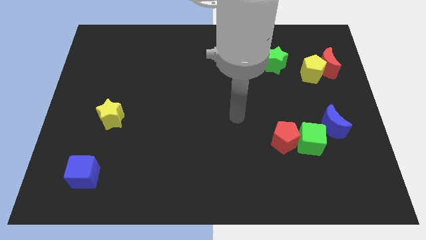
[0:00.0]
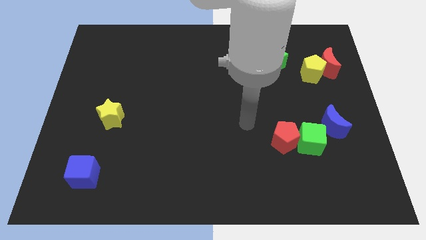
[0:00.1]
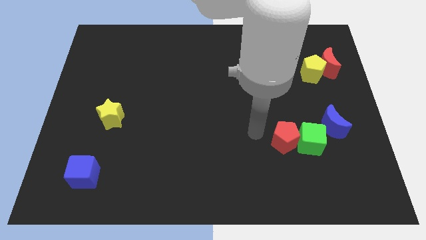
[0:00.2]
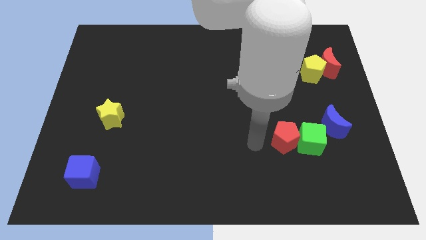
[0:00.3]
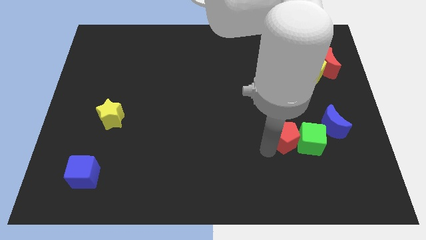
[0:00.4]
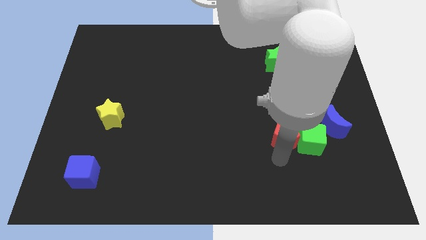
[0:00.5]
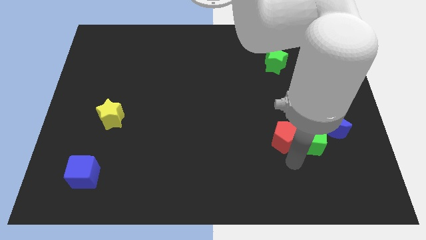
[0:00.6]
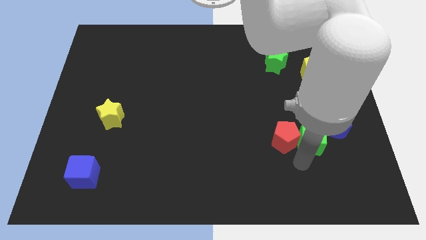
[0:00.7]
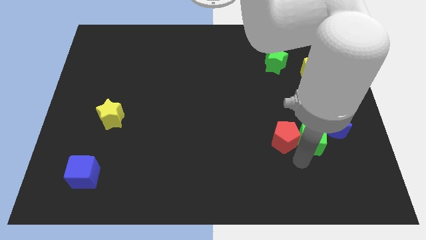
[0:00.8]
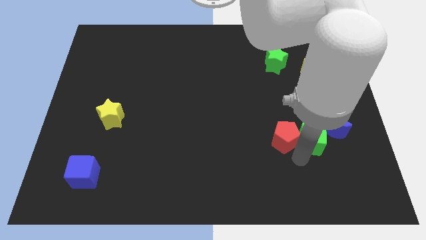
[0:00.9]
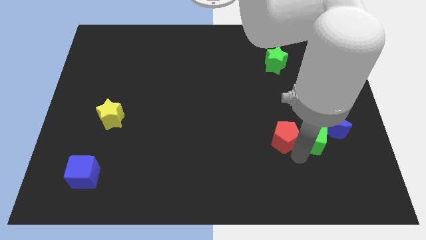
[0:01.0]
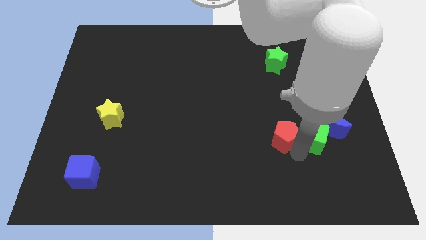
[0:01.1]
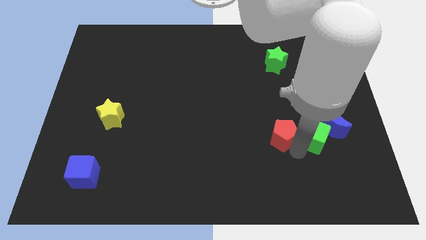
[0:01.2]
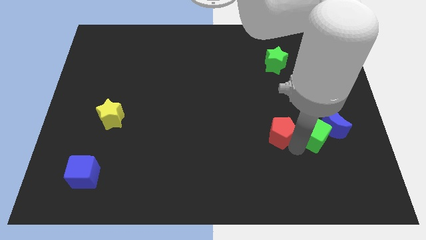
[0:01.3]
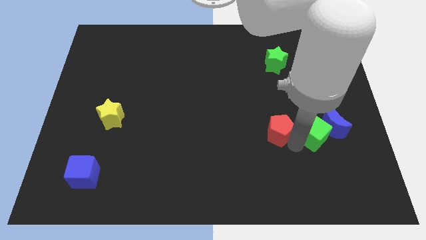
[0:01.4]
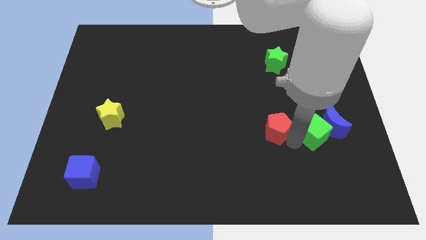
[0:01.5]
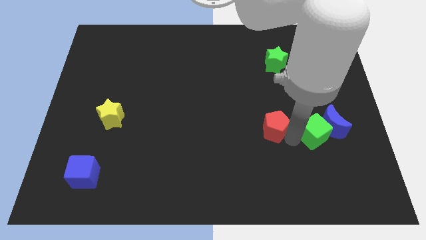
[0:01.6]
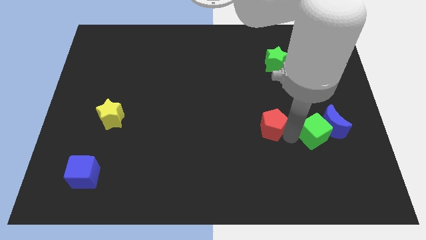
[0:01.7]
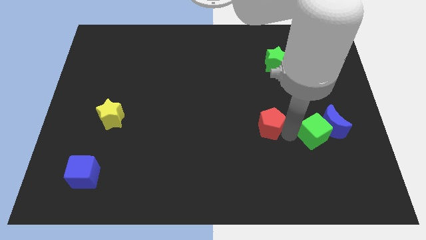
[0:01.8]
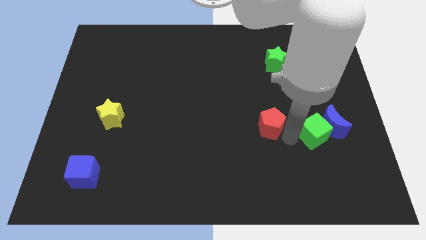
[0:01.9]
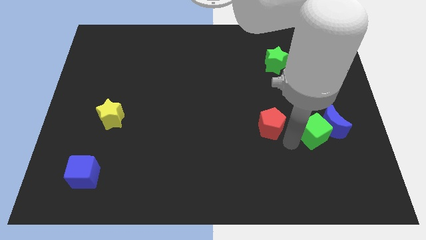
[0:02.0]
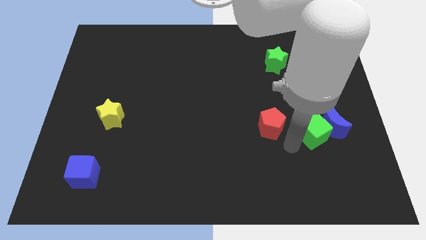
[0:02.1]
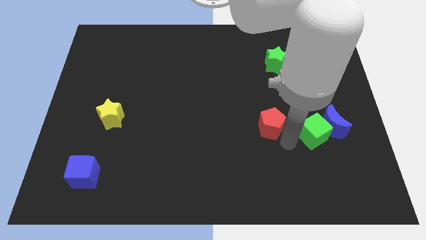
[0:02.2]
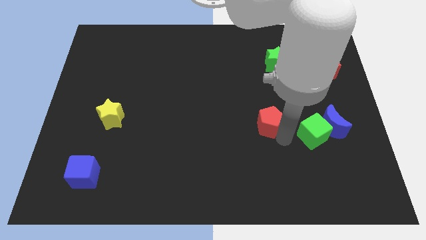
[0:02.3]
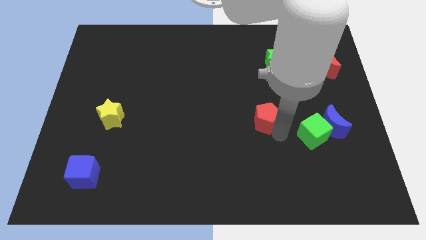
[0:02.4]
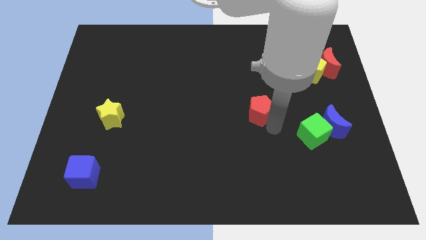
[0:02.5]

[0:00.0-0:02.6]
slide the red pentagon somewhat upwards and left

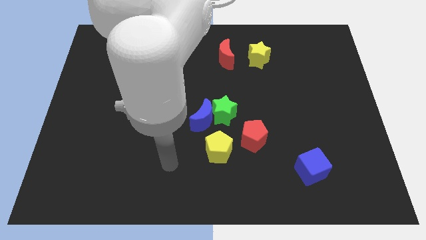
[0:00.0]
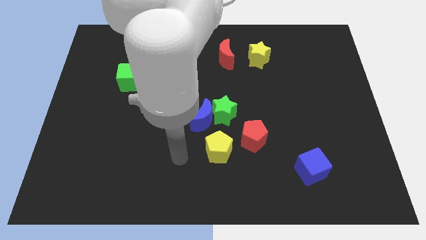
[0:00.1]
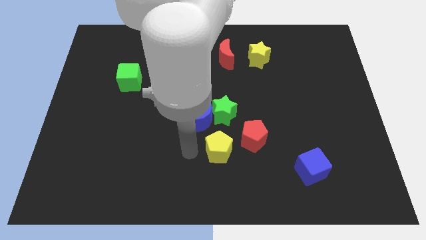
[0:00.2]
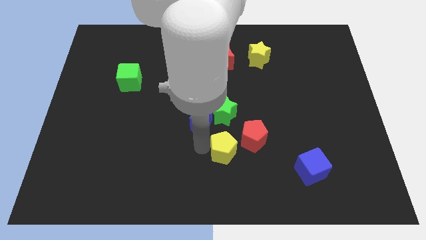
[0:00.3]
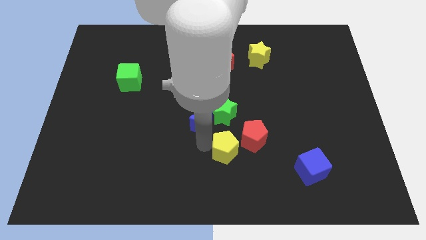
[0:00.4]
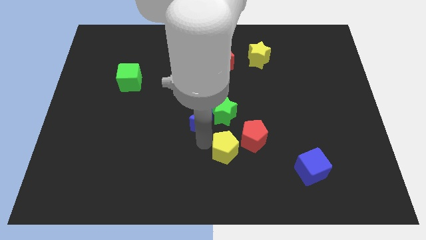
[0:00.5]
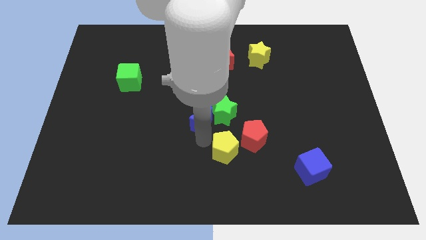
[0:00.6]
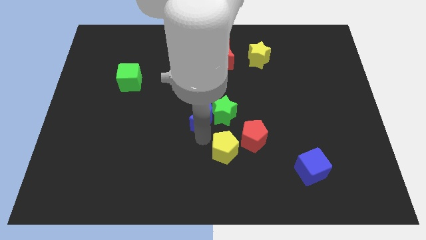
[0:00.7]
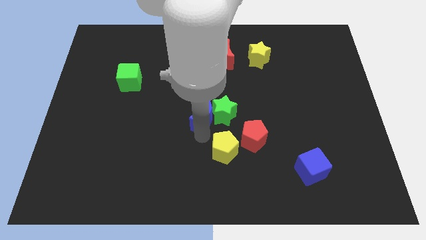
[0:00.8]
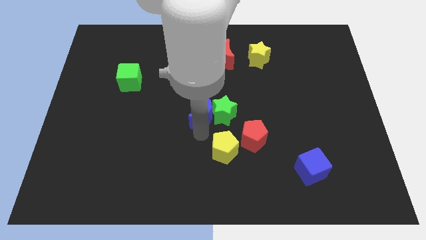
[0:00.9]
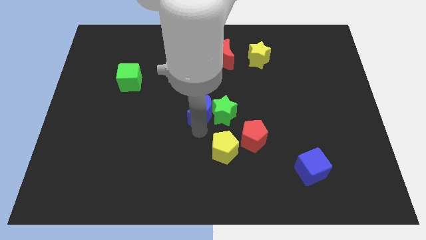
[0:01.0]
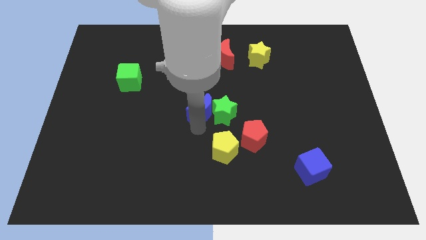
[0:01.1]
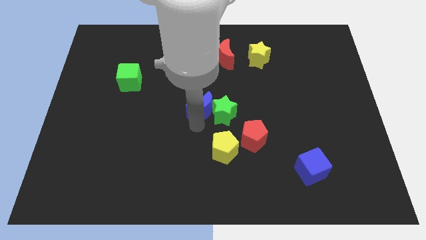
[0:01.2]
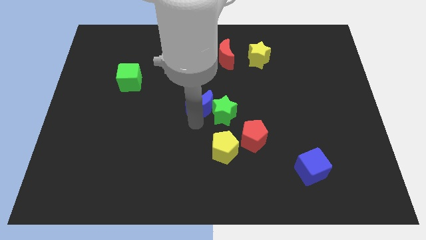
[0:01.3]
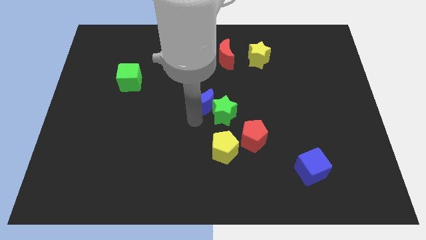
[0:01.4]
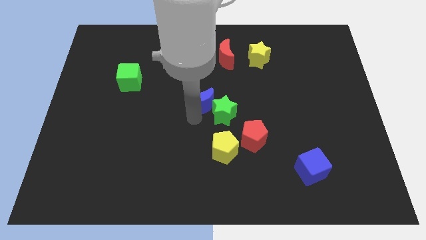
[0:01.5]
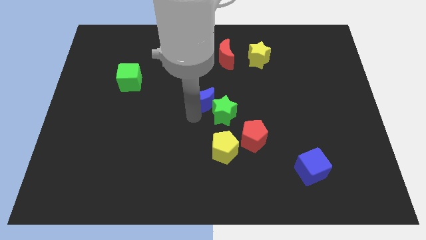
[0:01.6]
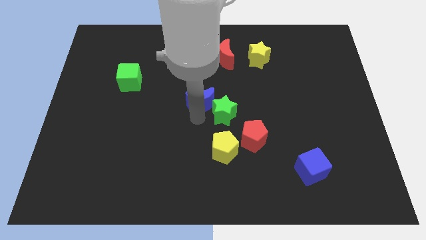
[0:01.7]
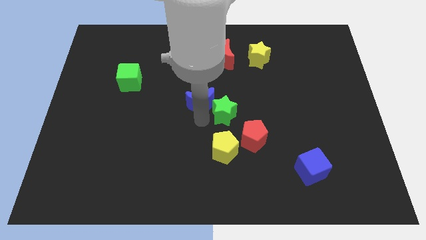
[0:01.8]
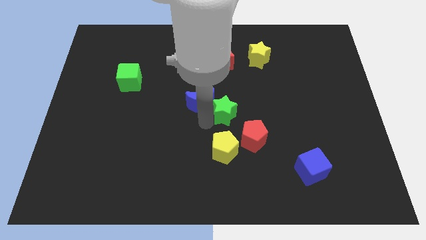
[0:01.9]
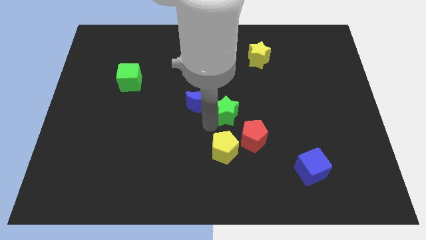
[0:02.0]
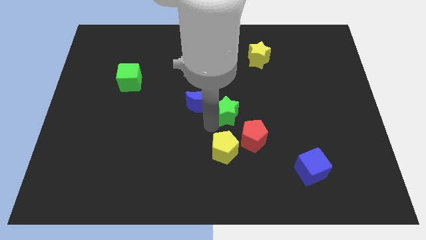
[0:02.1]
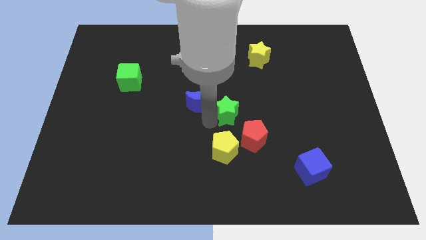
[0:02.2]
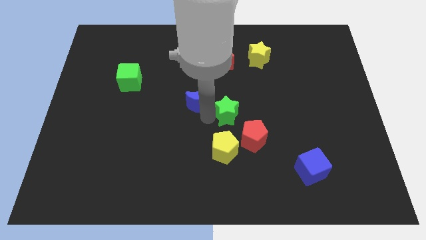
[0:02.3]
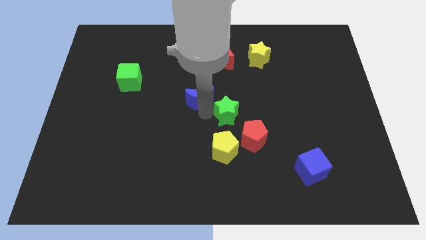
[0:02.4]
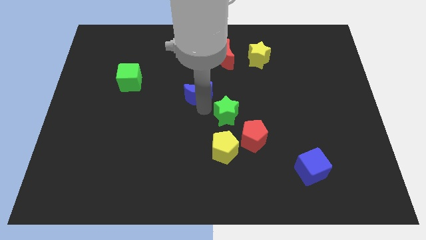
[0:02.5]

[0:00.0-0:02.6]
push the blue moon up a little bit

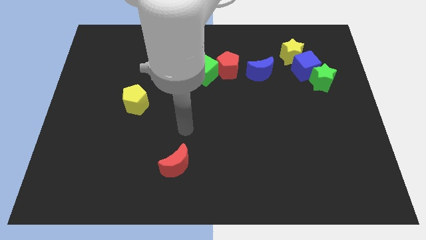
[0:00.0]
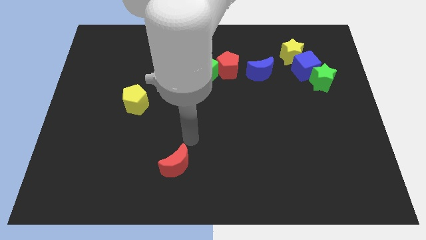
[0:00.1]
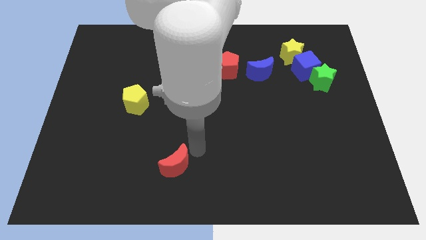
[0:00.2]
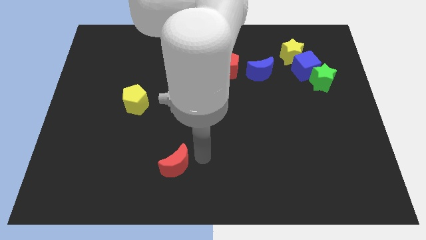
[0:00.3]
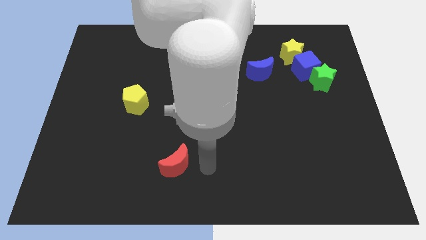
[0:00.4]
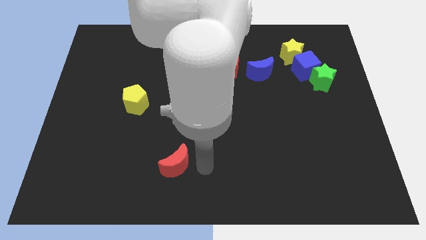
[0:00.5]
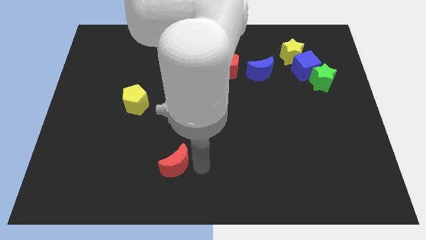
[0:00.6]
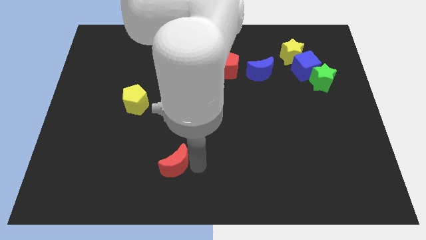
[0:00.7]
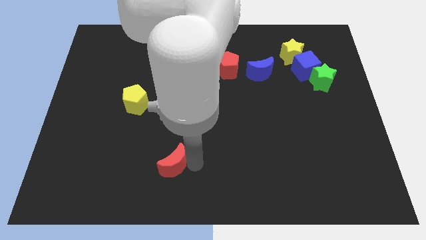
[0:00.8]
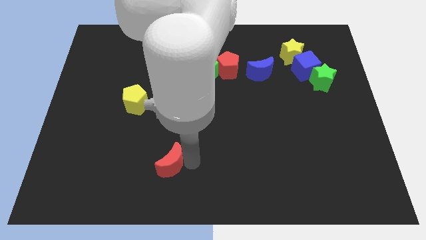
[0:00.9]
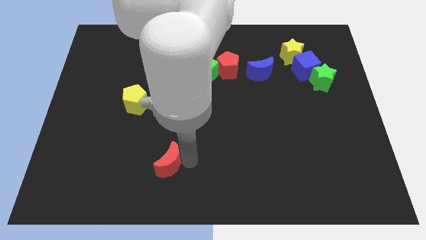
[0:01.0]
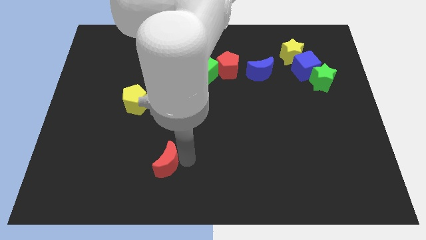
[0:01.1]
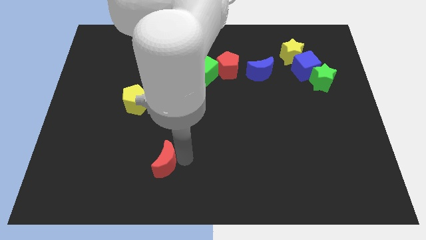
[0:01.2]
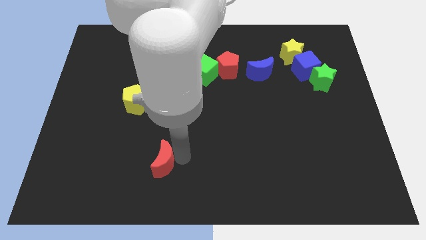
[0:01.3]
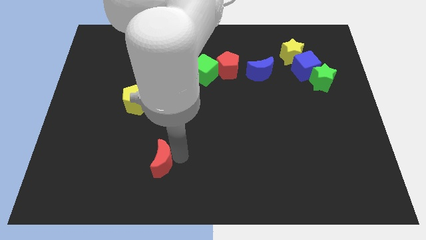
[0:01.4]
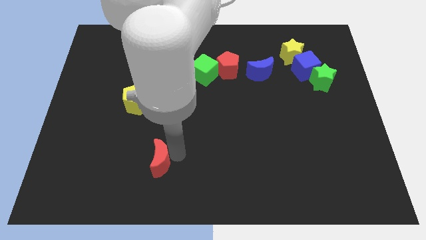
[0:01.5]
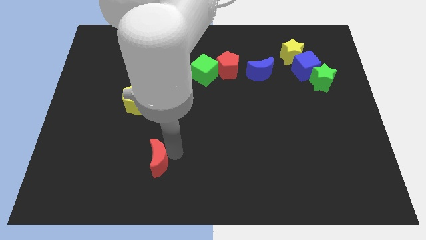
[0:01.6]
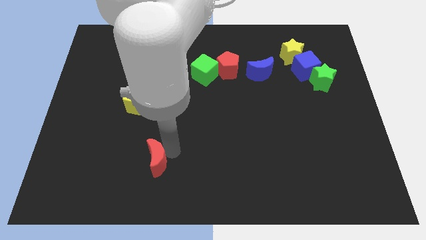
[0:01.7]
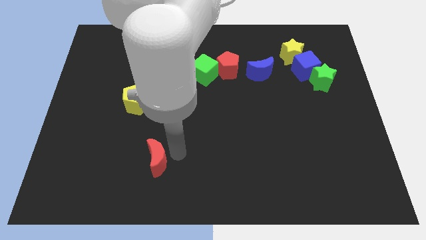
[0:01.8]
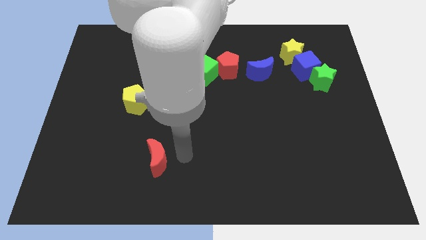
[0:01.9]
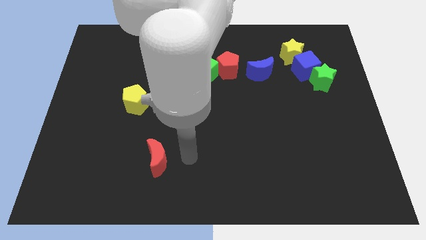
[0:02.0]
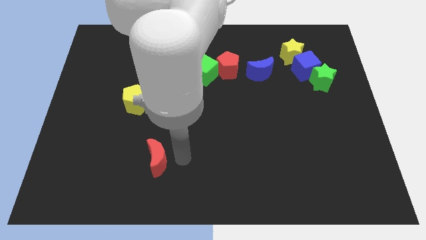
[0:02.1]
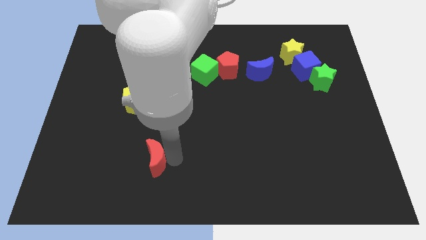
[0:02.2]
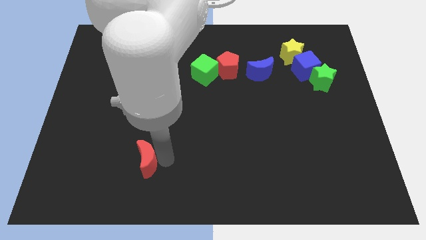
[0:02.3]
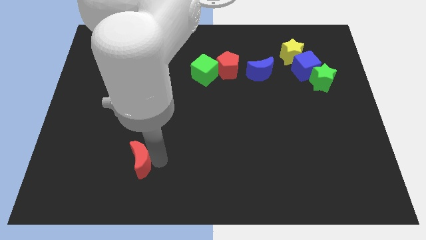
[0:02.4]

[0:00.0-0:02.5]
slightly slide the red moon left

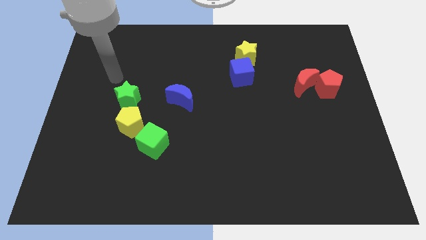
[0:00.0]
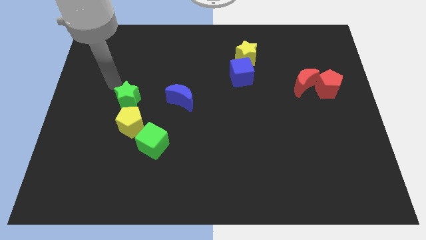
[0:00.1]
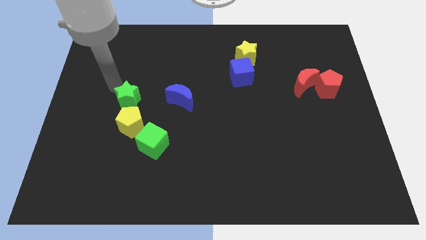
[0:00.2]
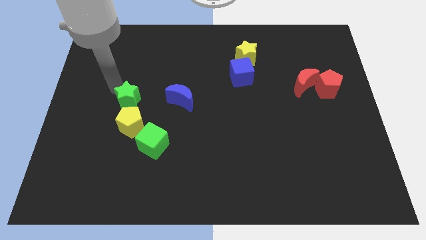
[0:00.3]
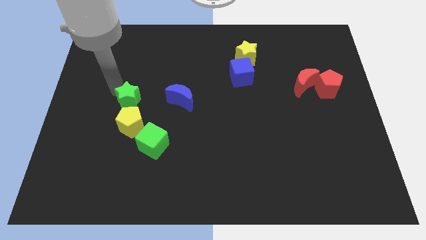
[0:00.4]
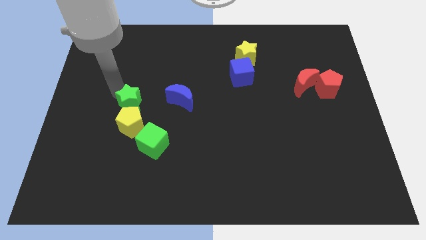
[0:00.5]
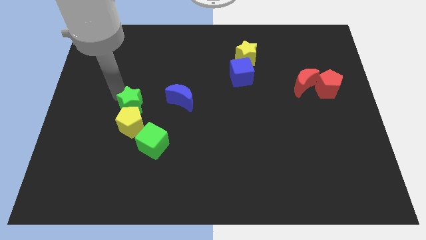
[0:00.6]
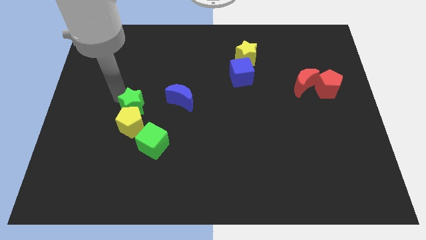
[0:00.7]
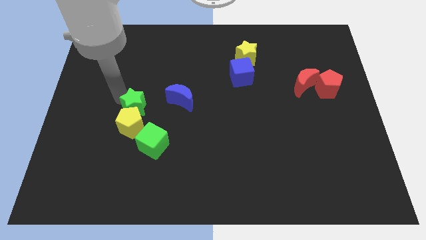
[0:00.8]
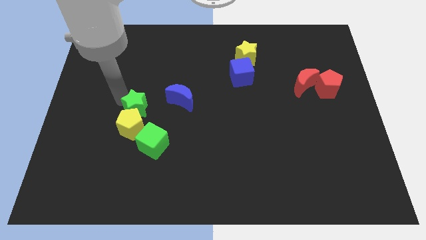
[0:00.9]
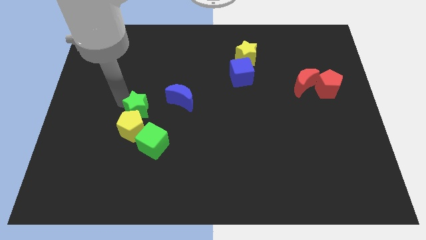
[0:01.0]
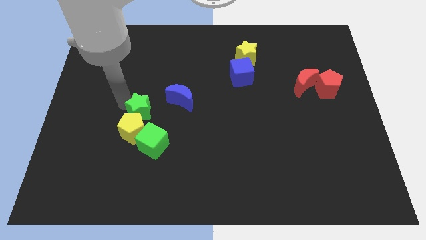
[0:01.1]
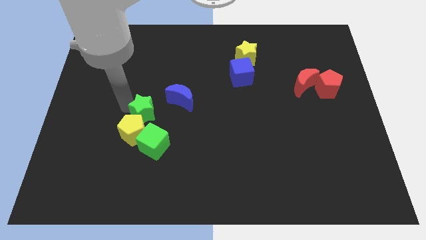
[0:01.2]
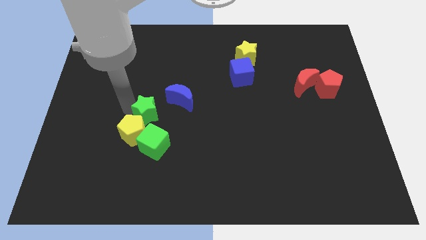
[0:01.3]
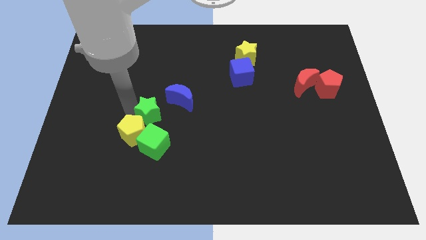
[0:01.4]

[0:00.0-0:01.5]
slightly move the green star diagonally downwards and right
